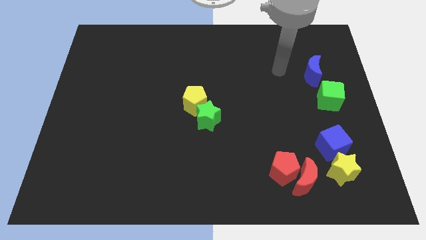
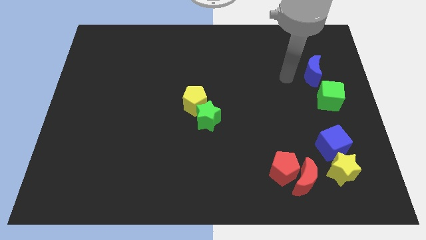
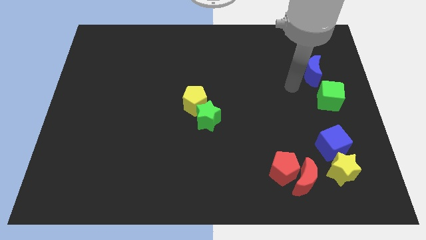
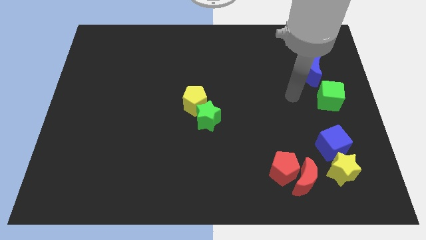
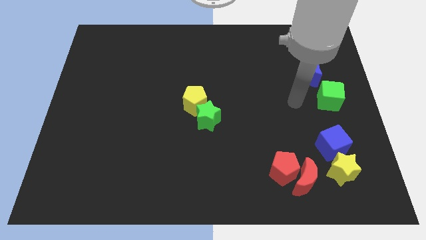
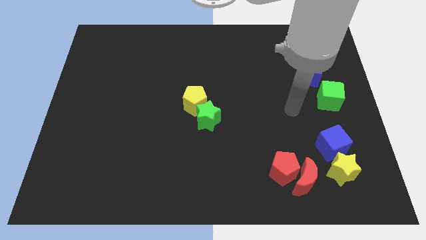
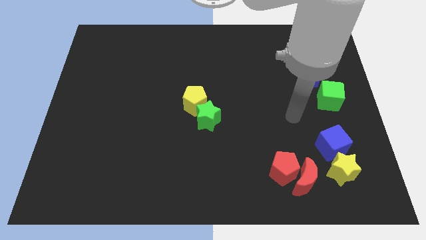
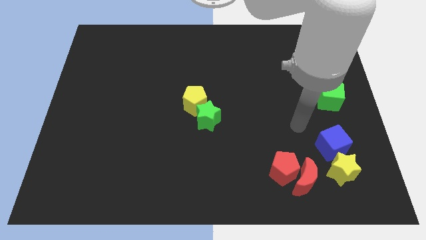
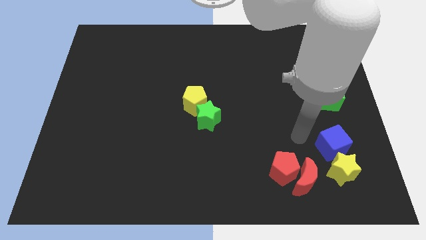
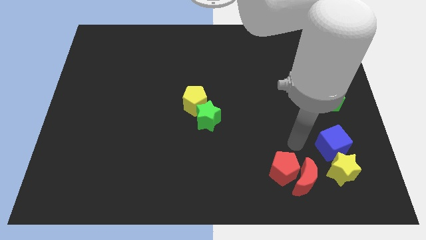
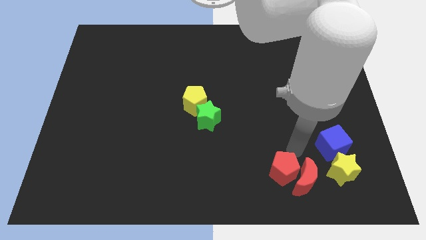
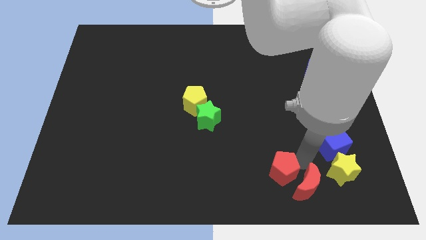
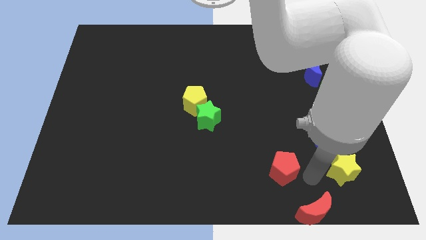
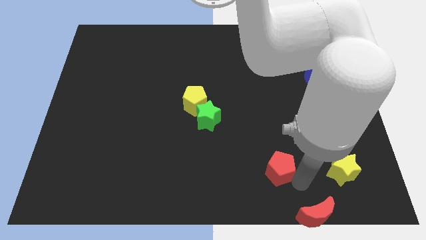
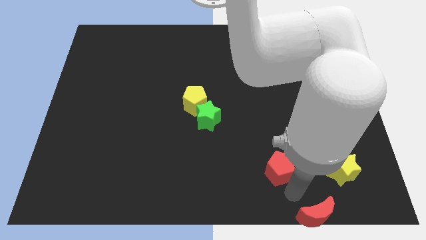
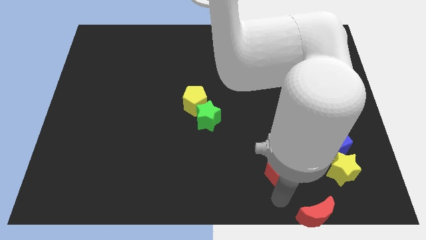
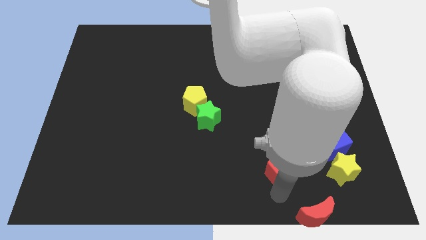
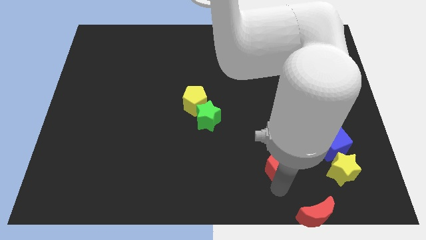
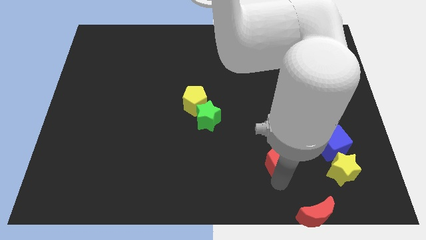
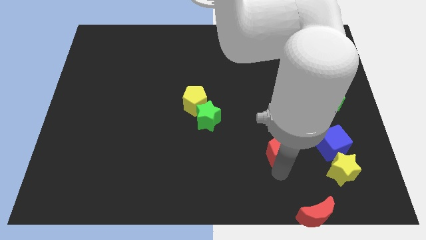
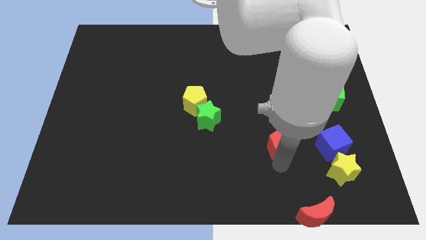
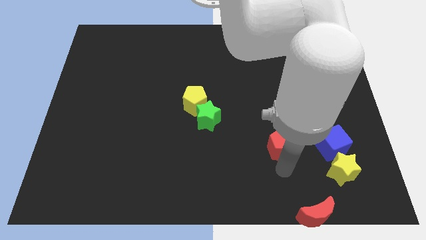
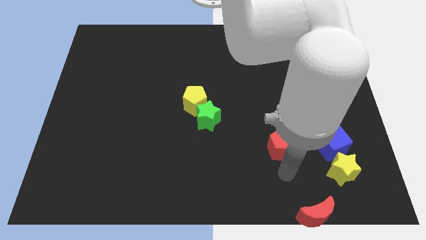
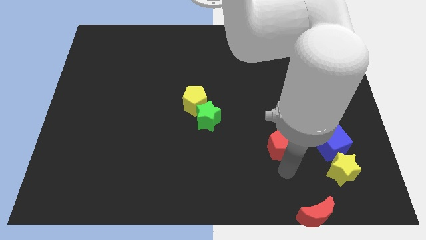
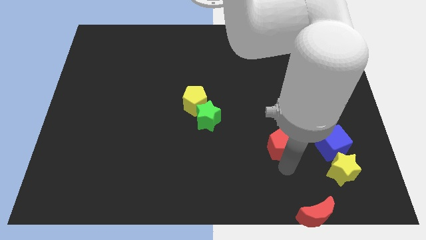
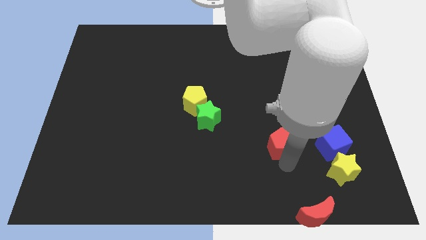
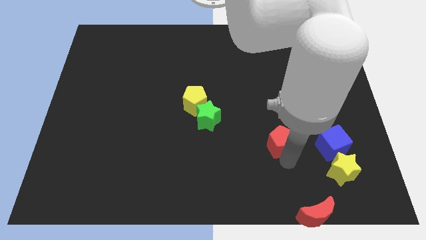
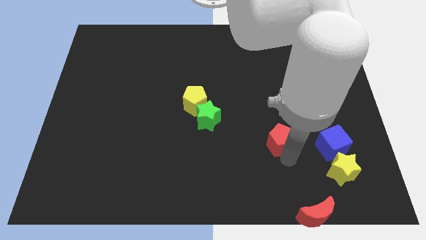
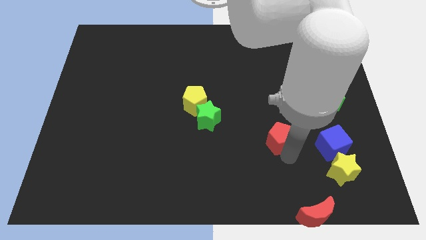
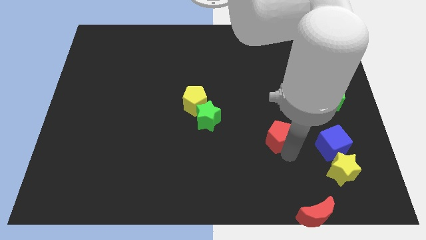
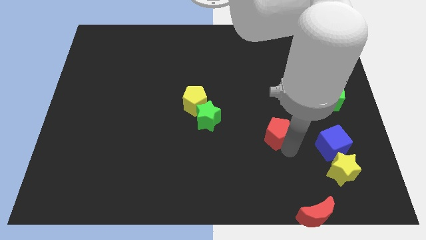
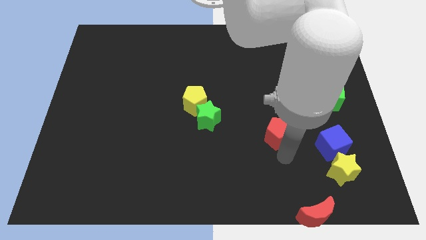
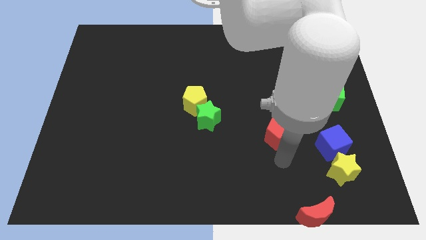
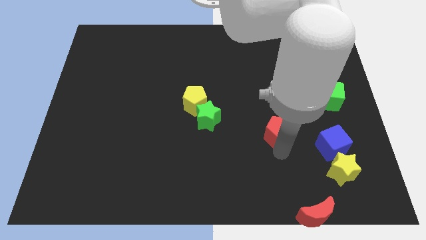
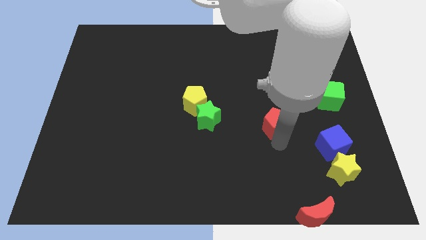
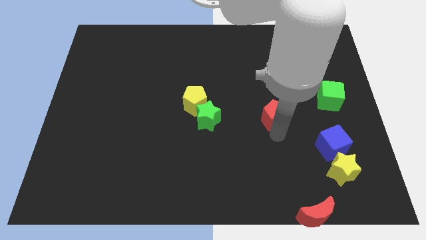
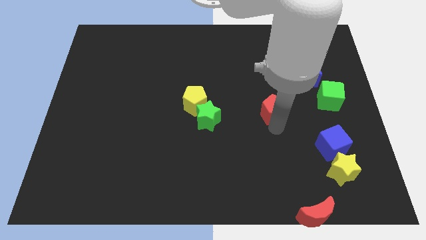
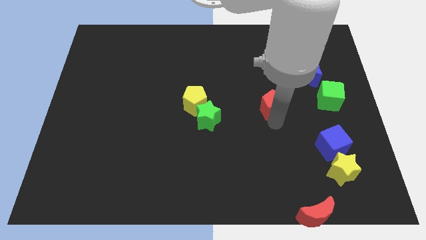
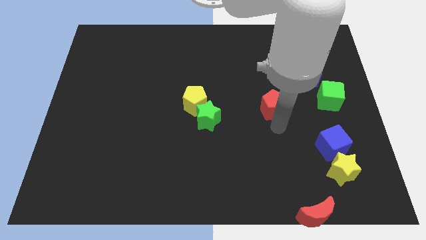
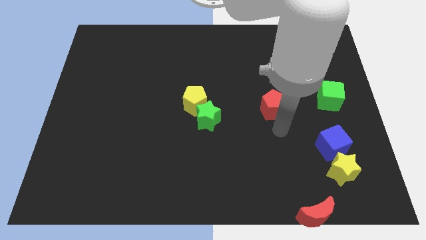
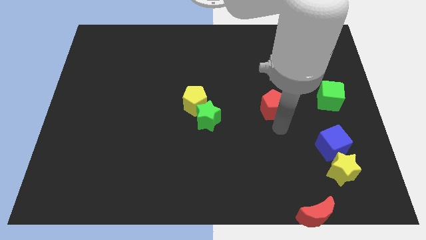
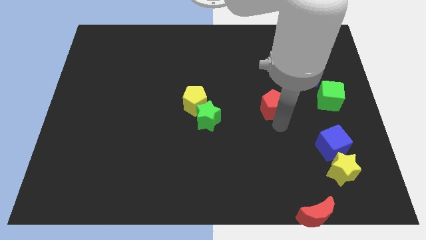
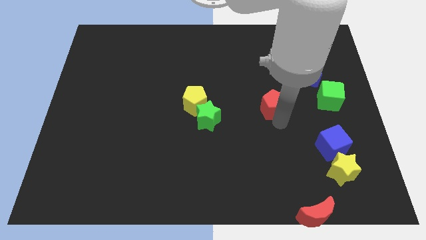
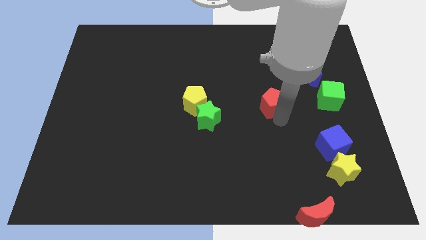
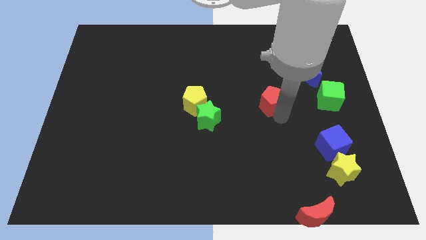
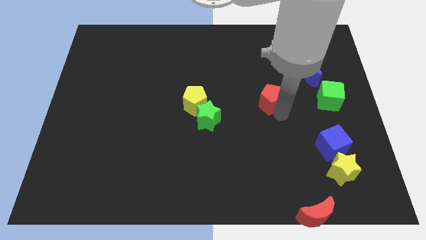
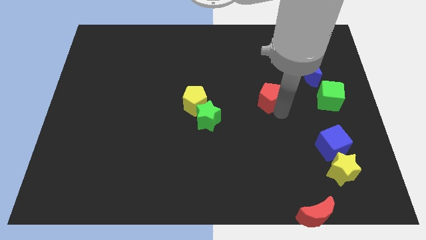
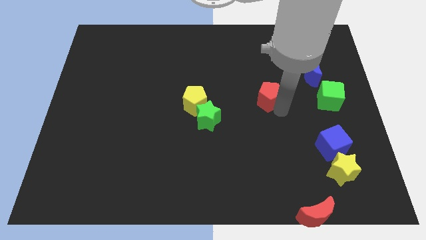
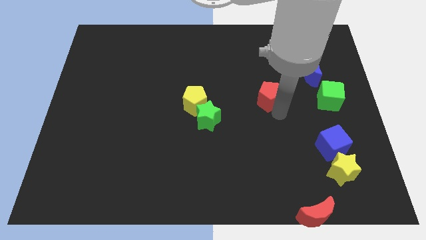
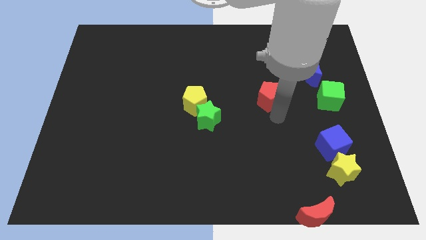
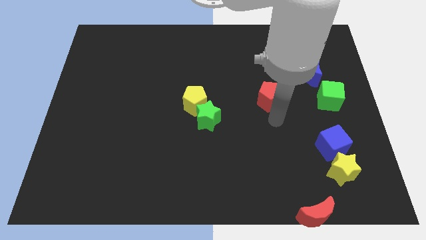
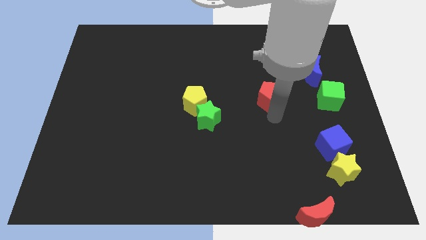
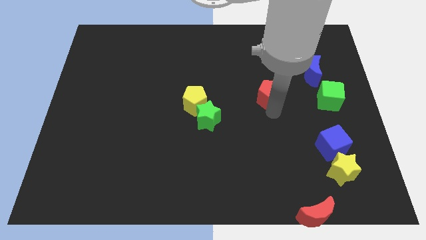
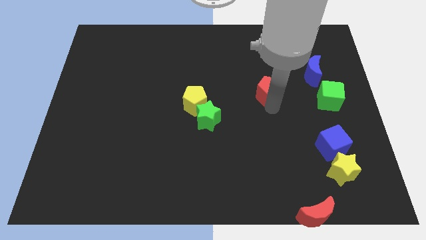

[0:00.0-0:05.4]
slide the red pentagon up

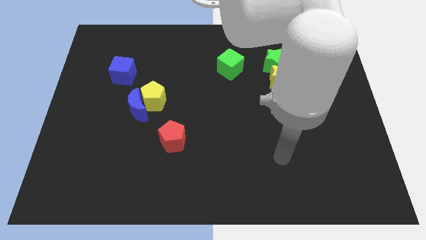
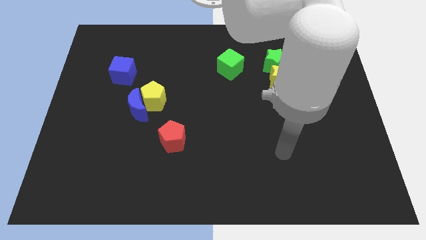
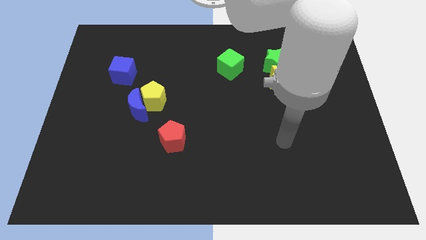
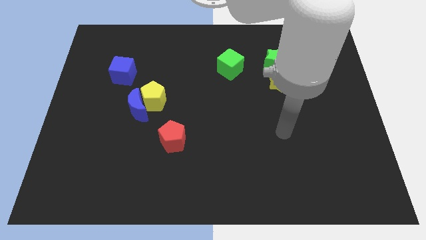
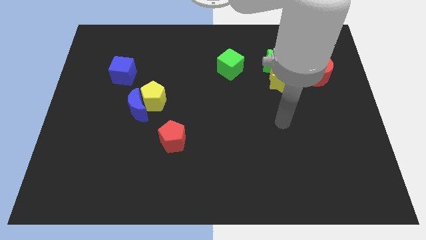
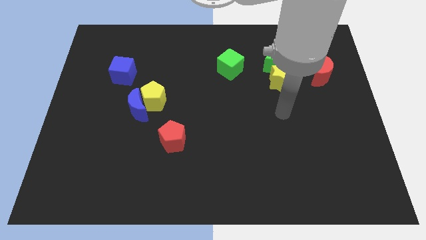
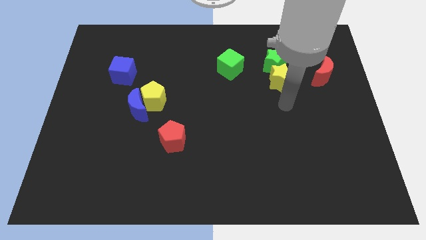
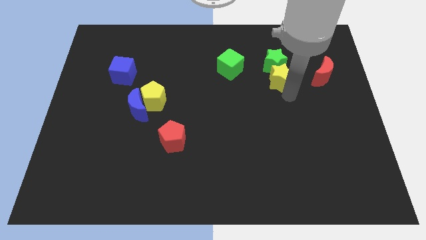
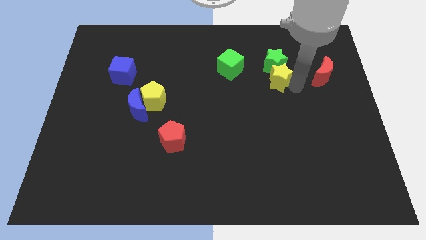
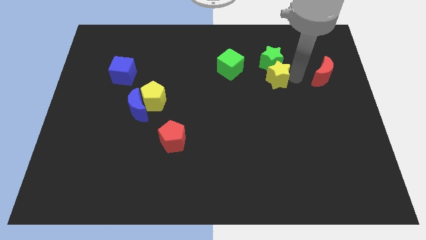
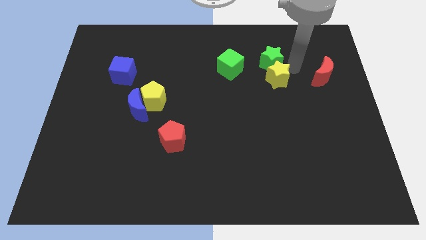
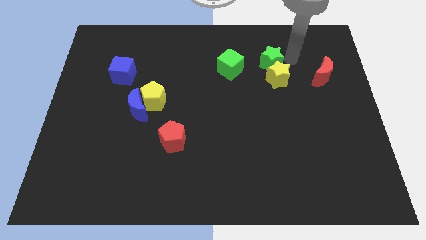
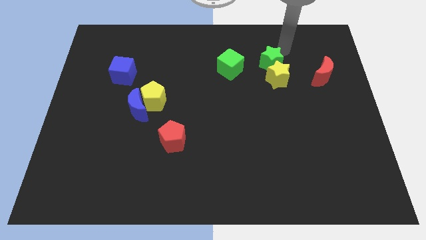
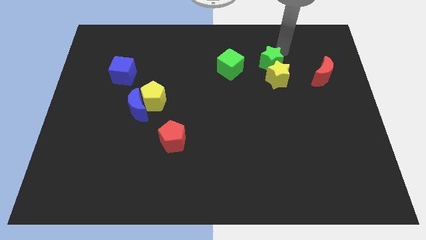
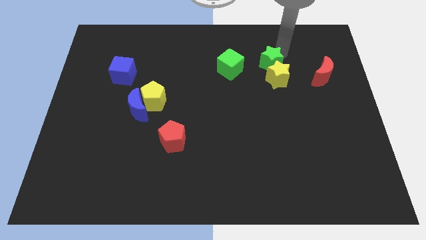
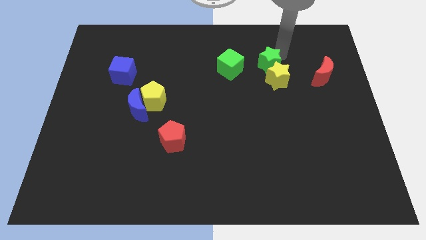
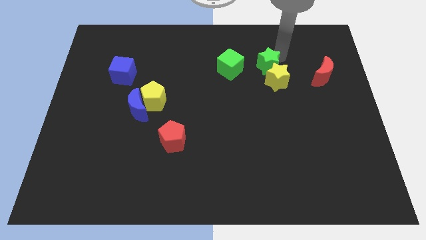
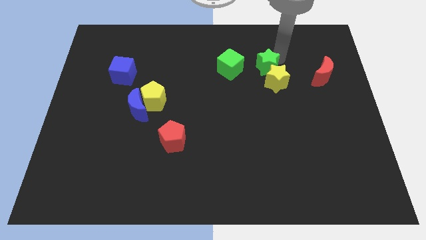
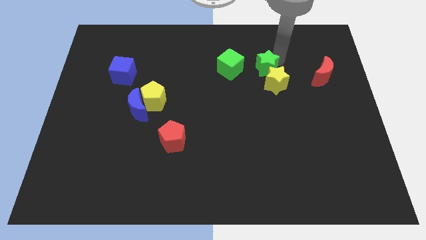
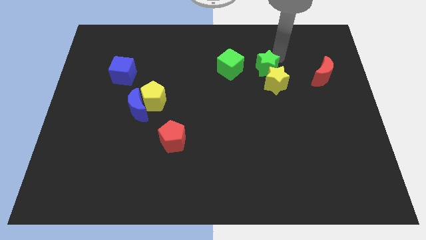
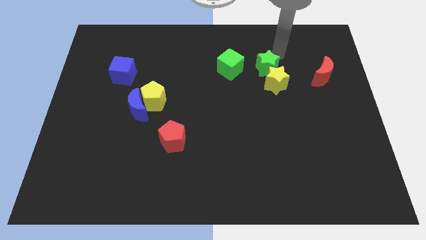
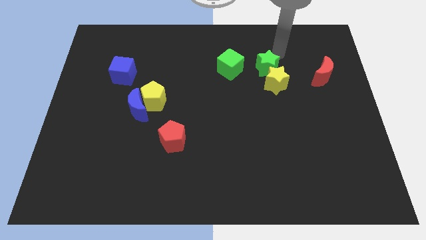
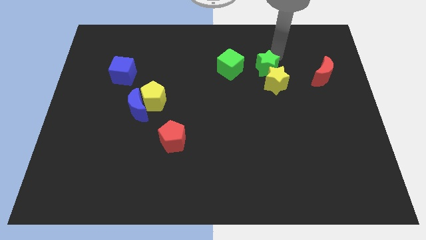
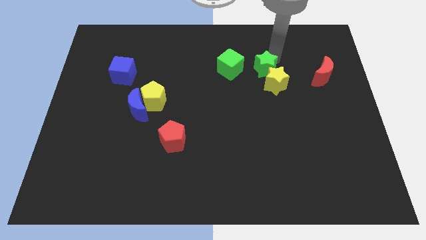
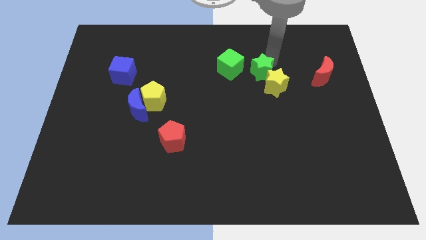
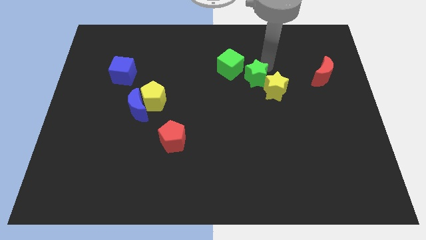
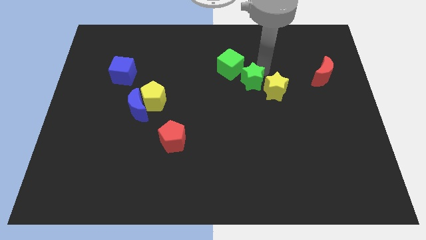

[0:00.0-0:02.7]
push the green star a bit down and to the left diagonally
